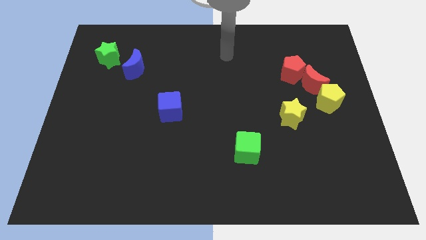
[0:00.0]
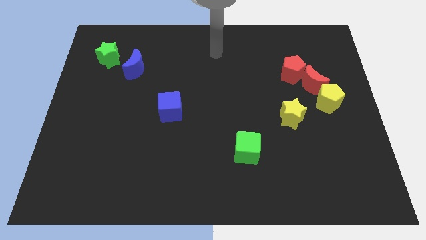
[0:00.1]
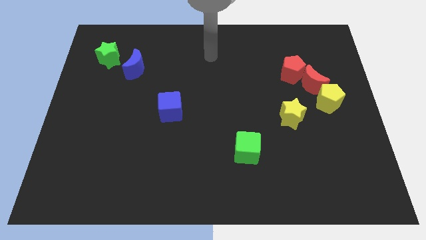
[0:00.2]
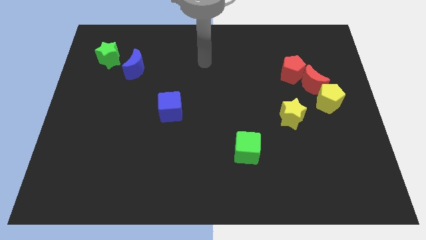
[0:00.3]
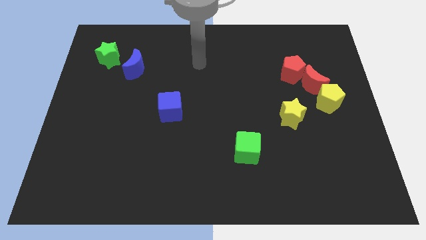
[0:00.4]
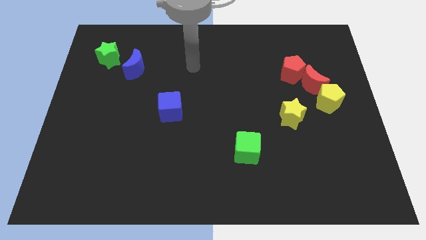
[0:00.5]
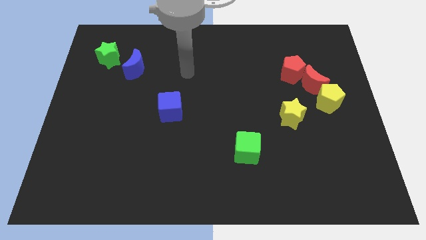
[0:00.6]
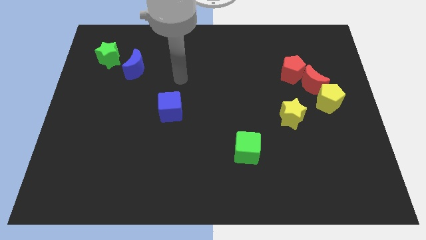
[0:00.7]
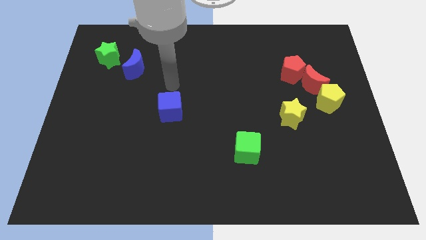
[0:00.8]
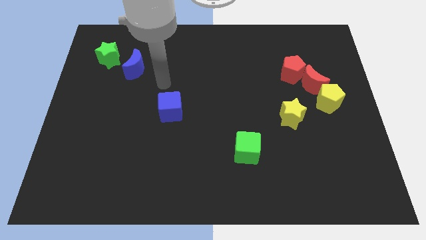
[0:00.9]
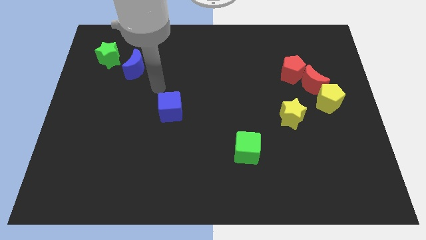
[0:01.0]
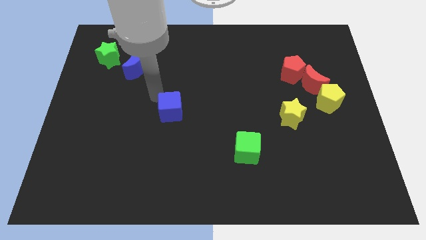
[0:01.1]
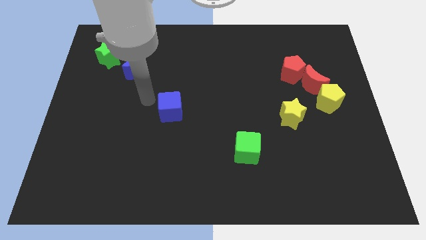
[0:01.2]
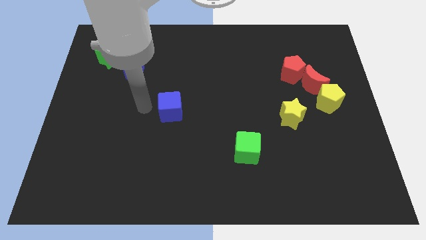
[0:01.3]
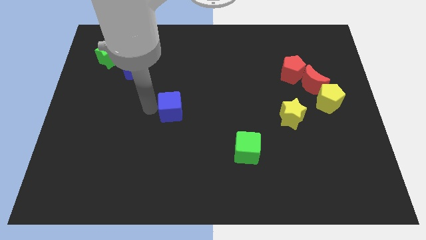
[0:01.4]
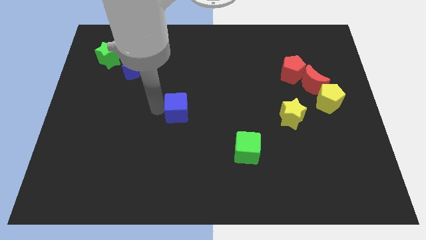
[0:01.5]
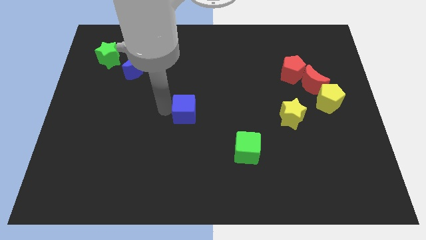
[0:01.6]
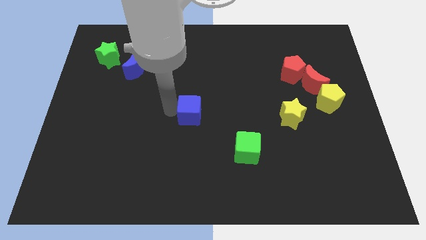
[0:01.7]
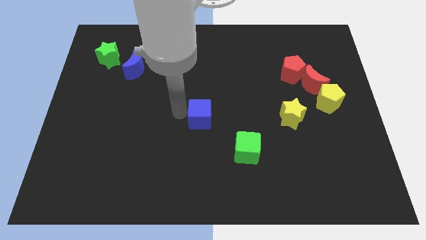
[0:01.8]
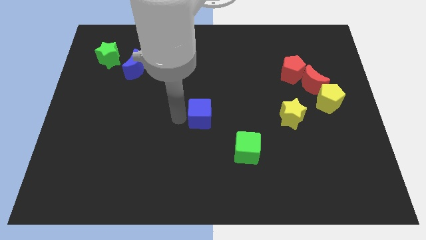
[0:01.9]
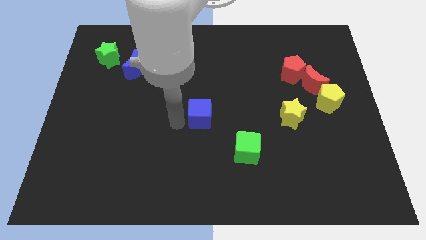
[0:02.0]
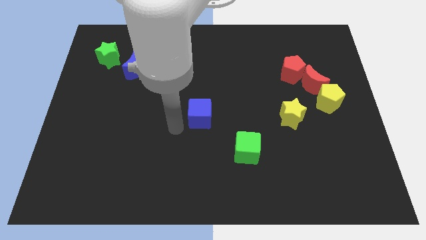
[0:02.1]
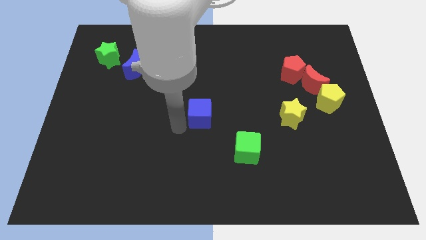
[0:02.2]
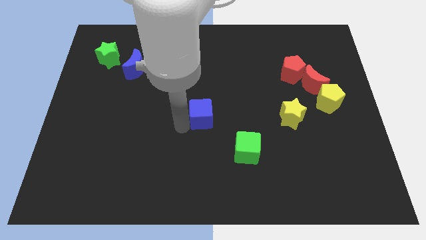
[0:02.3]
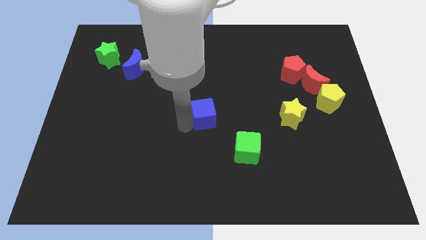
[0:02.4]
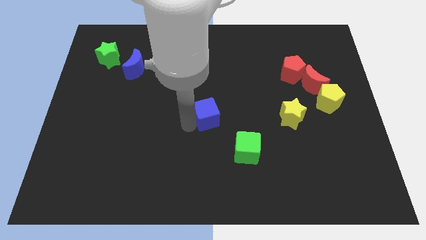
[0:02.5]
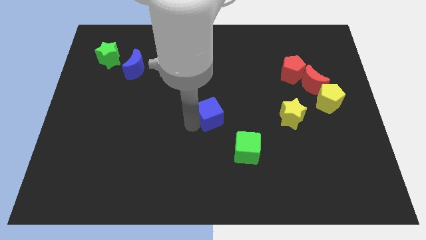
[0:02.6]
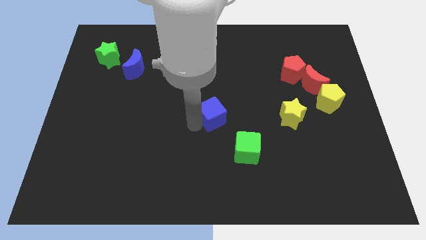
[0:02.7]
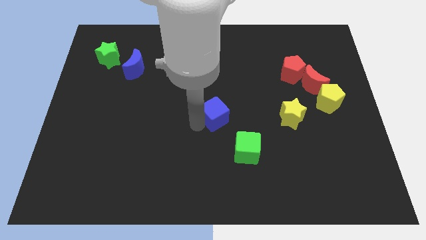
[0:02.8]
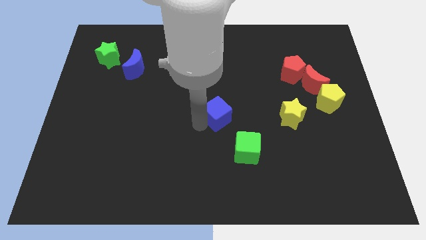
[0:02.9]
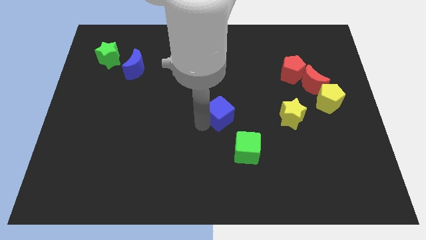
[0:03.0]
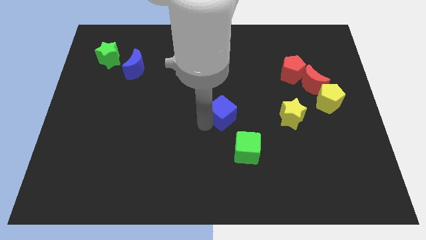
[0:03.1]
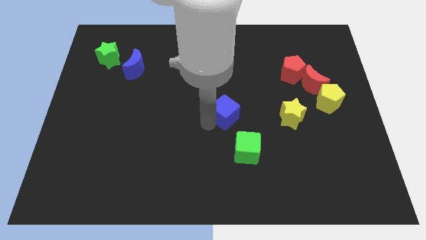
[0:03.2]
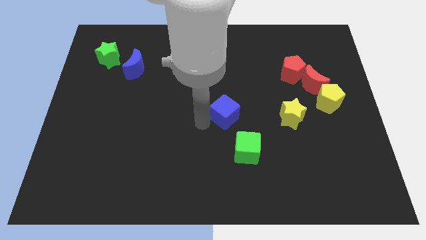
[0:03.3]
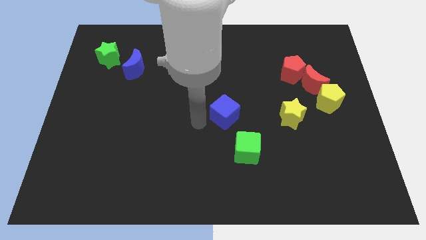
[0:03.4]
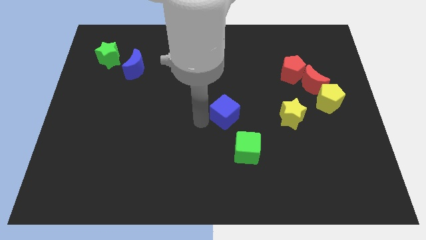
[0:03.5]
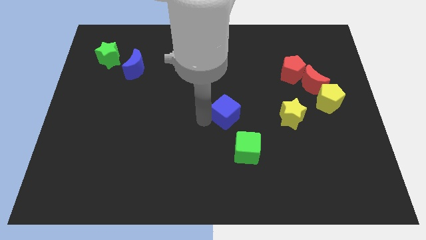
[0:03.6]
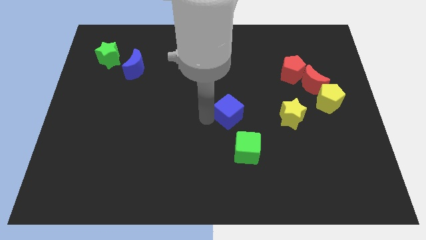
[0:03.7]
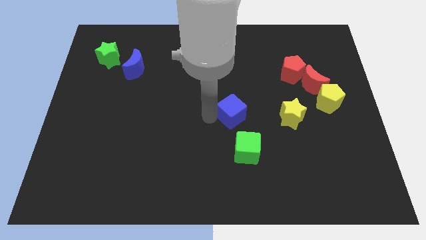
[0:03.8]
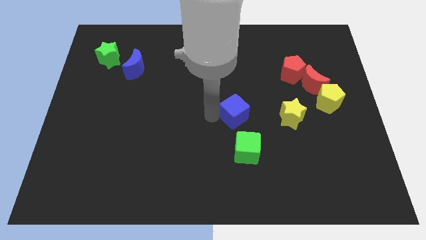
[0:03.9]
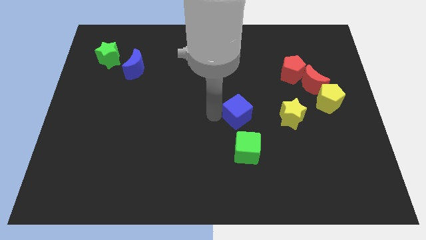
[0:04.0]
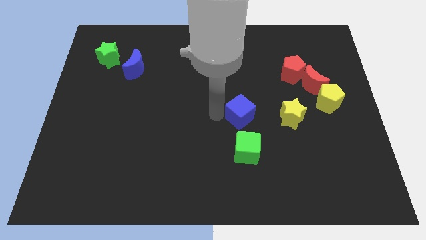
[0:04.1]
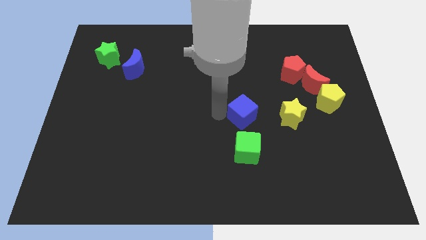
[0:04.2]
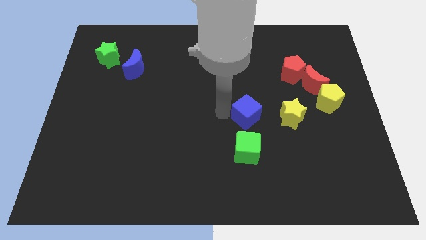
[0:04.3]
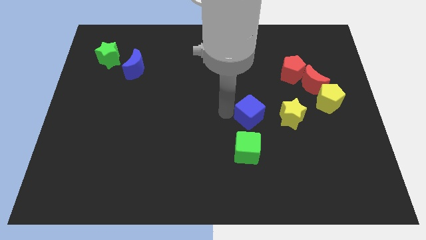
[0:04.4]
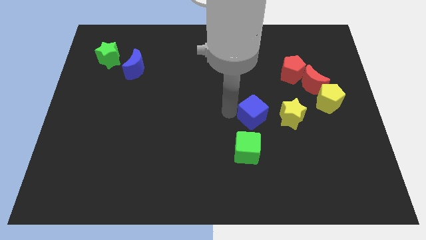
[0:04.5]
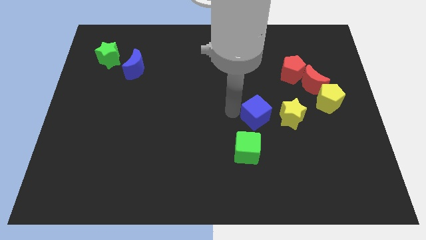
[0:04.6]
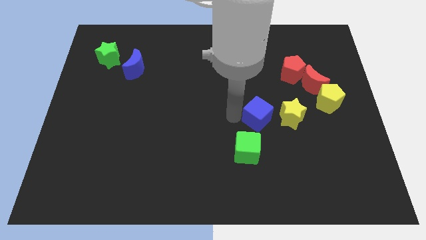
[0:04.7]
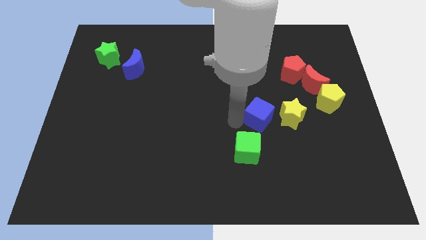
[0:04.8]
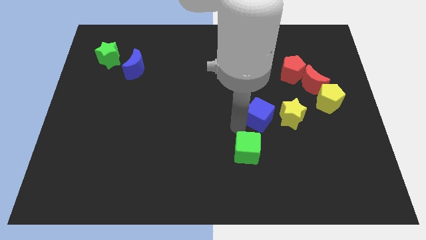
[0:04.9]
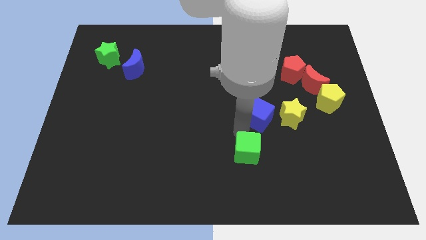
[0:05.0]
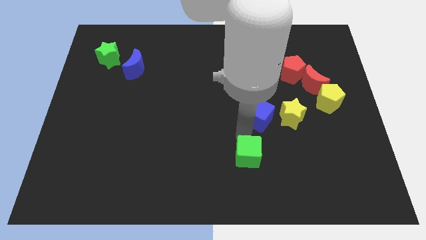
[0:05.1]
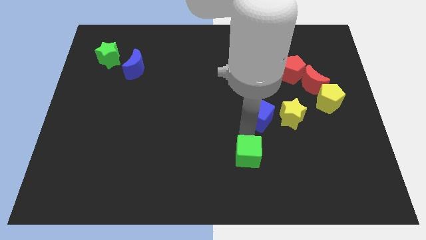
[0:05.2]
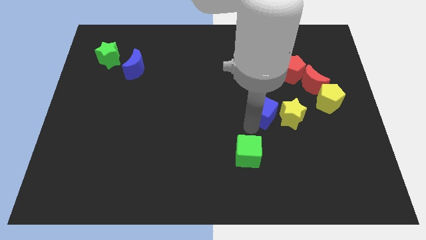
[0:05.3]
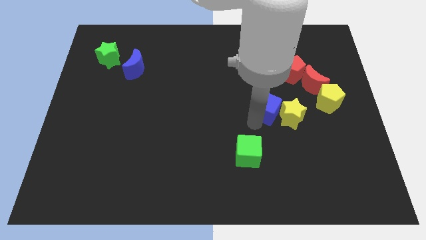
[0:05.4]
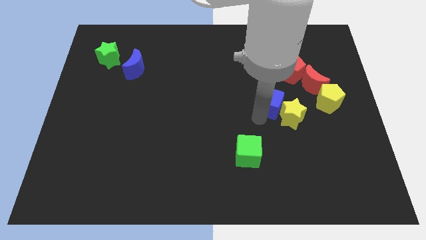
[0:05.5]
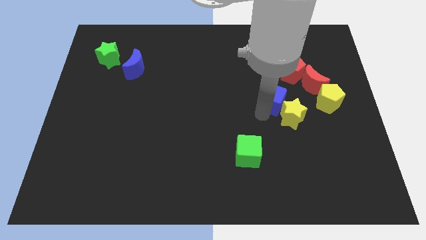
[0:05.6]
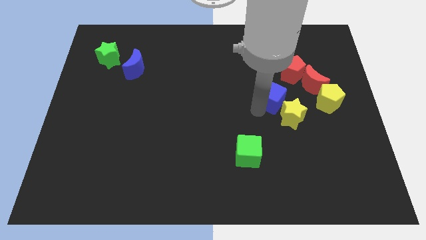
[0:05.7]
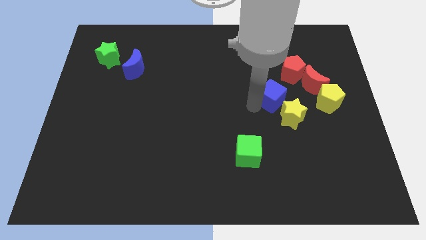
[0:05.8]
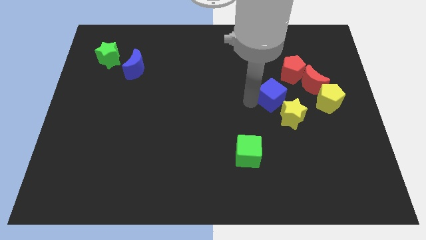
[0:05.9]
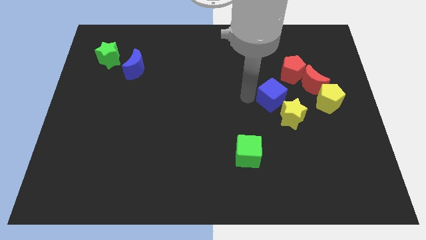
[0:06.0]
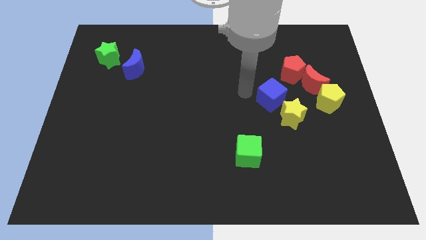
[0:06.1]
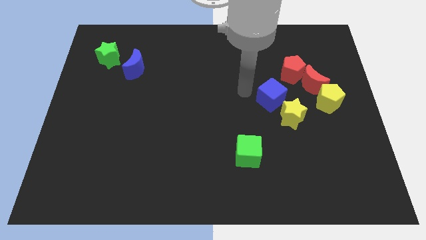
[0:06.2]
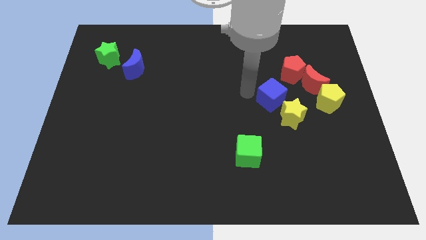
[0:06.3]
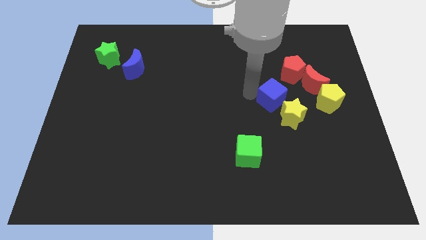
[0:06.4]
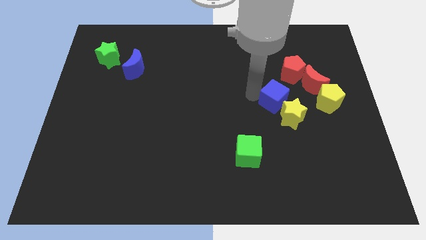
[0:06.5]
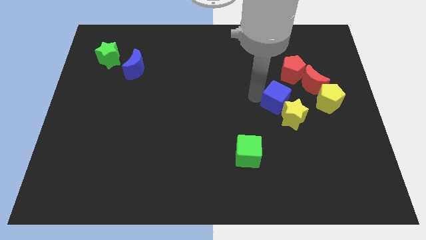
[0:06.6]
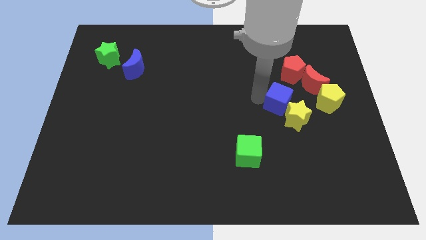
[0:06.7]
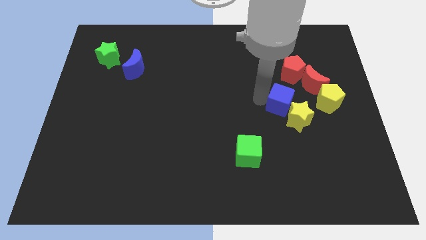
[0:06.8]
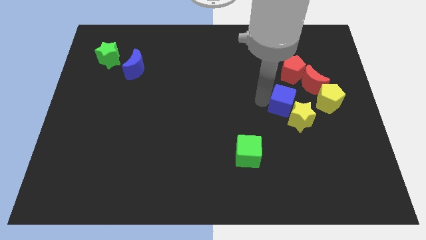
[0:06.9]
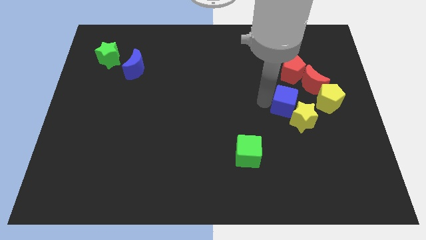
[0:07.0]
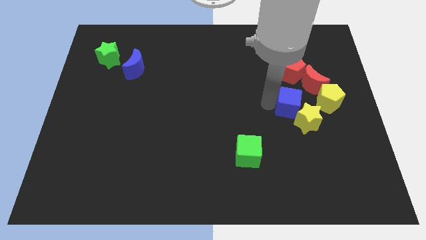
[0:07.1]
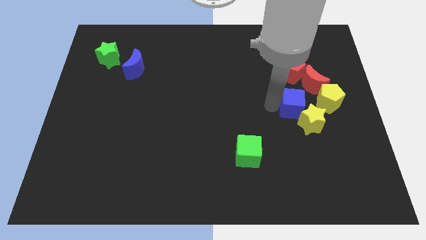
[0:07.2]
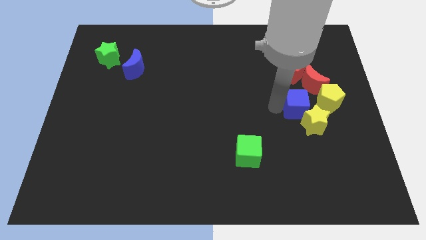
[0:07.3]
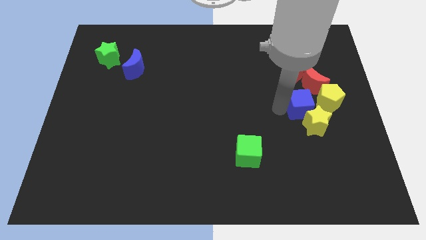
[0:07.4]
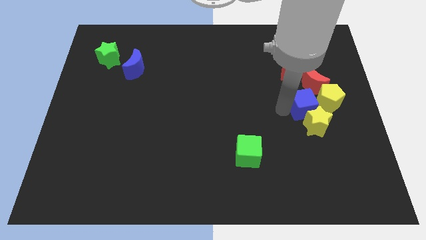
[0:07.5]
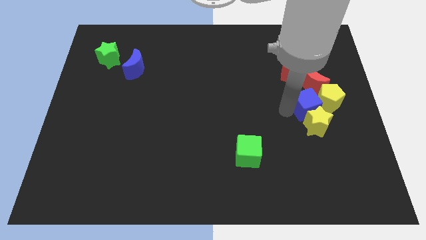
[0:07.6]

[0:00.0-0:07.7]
move the blue cube next to the yellow pentagon

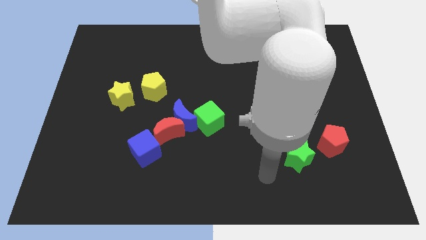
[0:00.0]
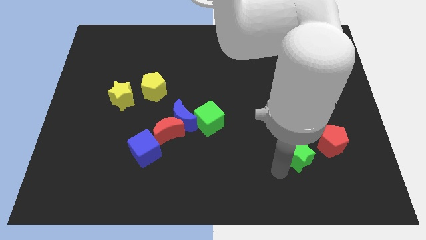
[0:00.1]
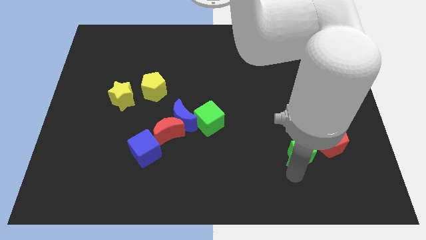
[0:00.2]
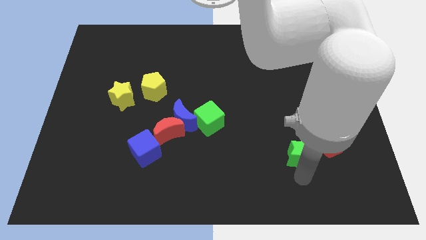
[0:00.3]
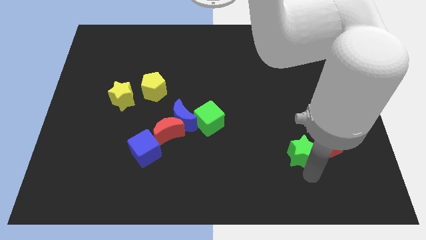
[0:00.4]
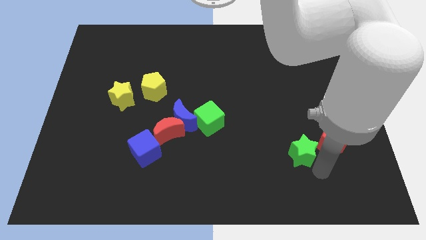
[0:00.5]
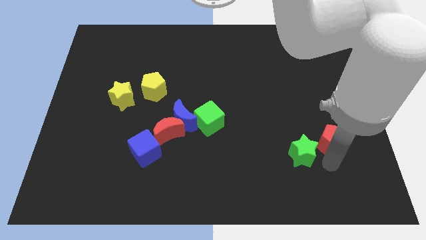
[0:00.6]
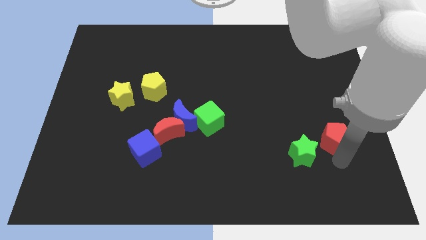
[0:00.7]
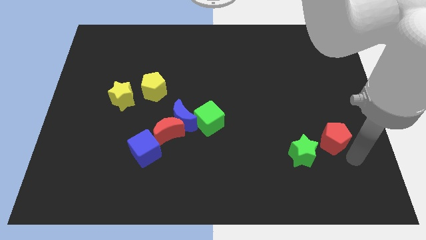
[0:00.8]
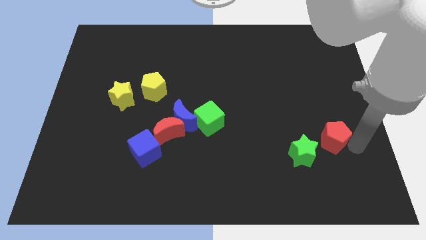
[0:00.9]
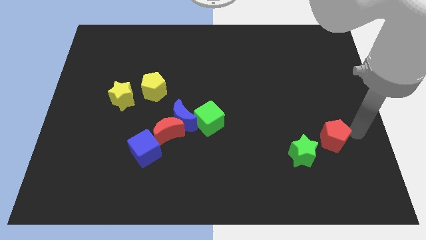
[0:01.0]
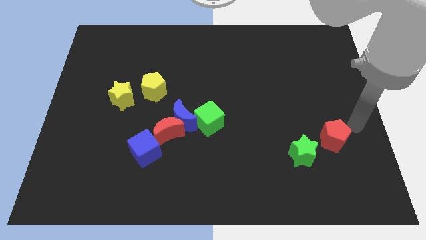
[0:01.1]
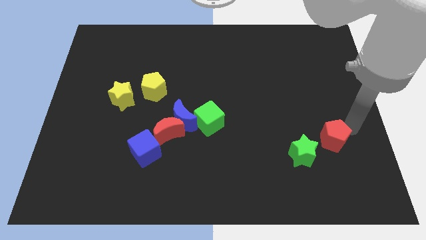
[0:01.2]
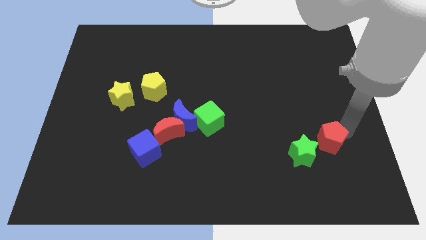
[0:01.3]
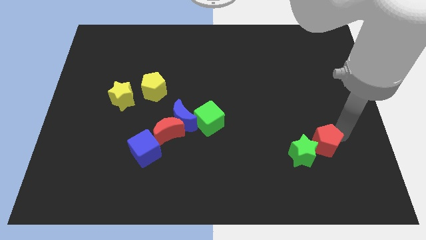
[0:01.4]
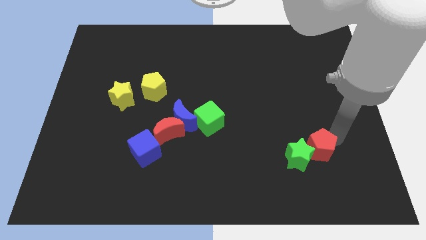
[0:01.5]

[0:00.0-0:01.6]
slide the red pentagon next to the green star
